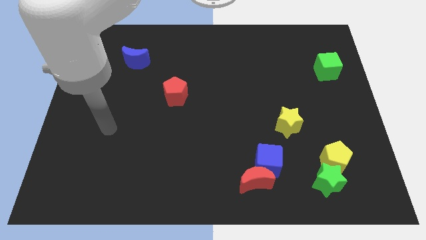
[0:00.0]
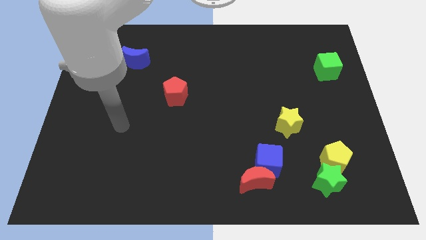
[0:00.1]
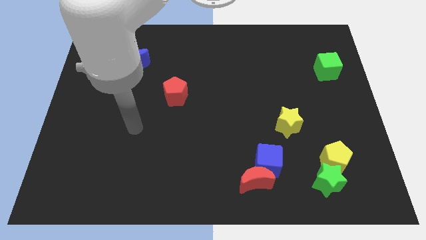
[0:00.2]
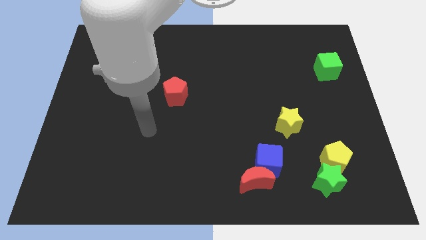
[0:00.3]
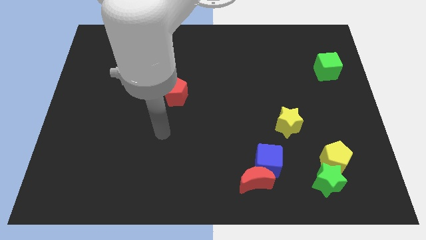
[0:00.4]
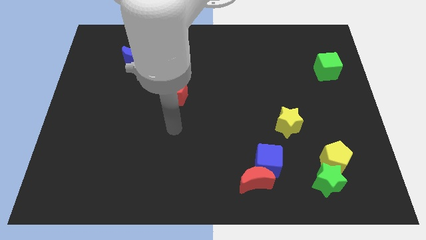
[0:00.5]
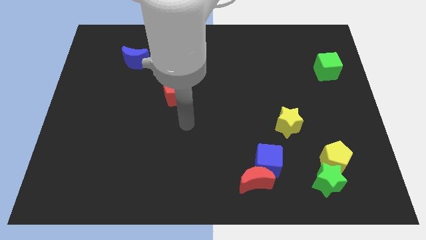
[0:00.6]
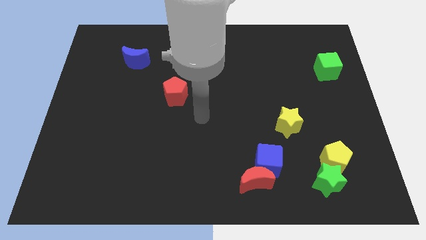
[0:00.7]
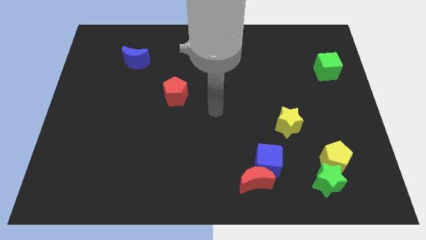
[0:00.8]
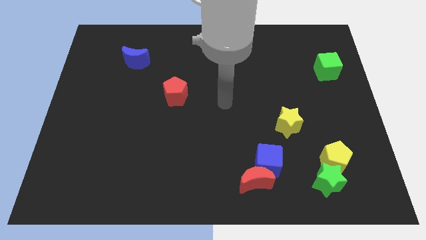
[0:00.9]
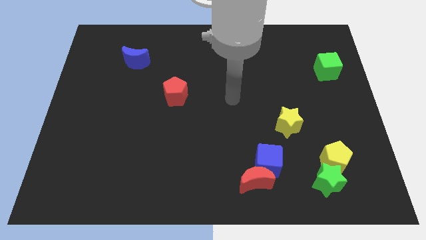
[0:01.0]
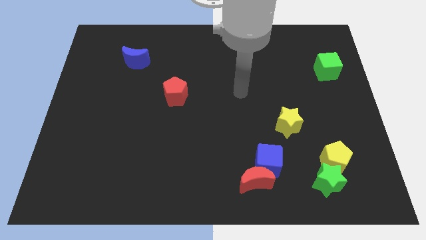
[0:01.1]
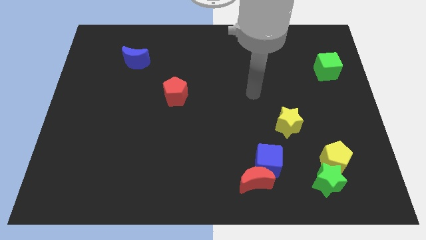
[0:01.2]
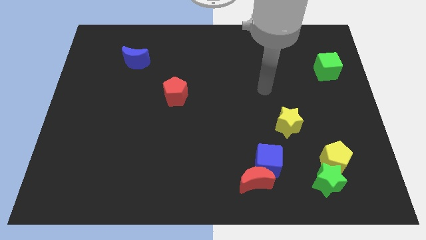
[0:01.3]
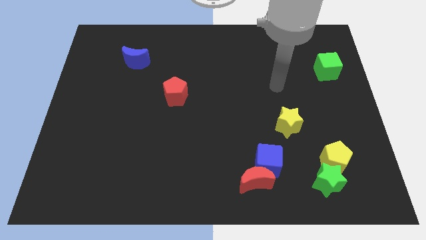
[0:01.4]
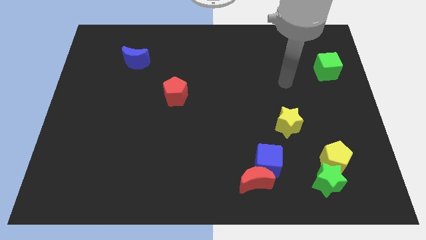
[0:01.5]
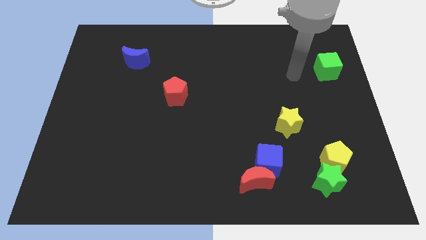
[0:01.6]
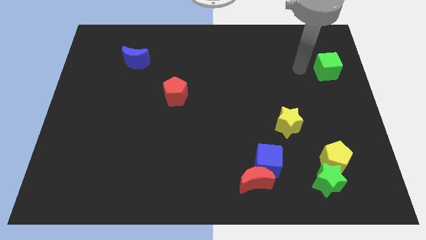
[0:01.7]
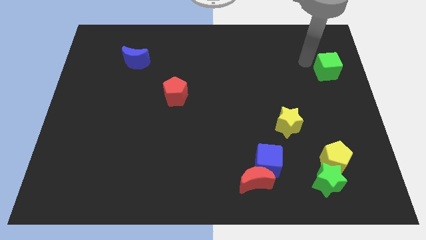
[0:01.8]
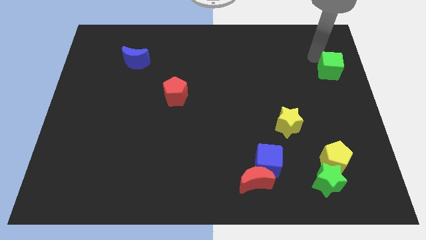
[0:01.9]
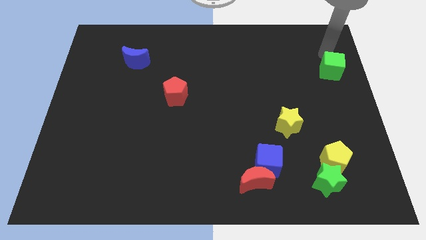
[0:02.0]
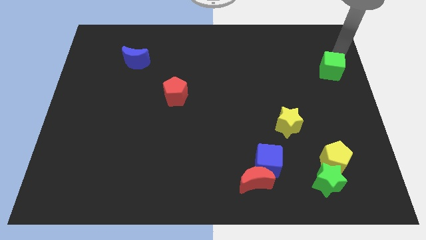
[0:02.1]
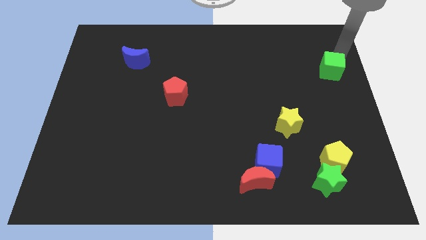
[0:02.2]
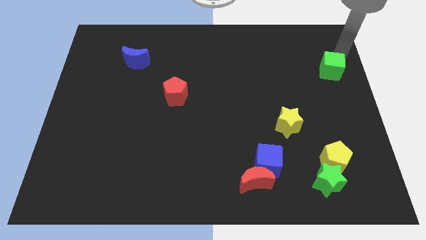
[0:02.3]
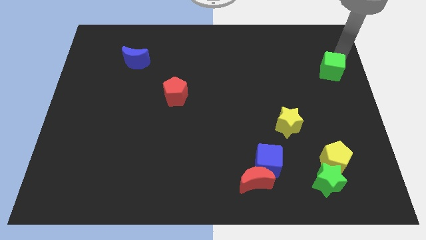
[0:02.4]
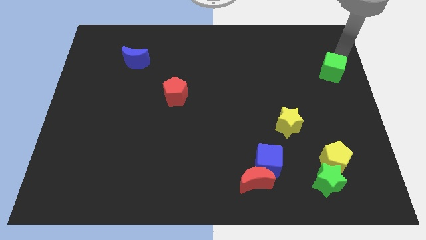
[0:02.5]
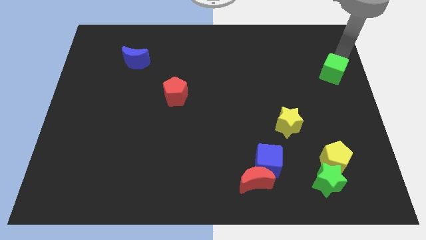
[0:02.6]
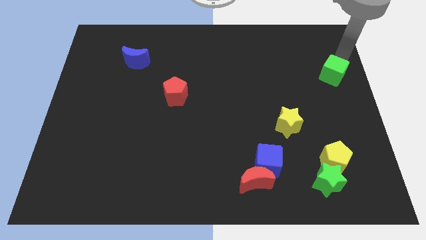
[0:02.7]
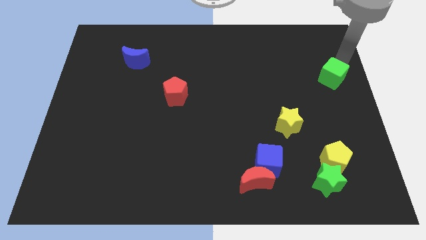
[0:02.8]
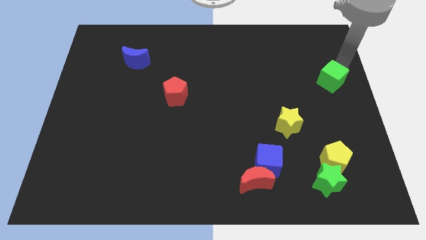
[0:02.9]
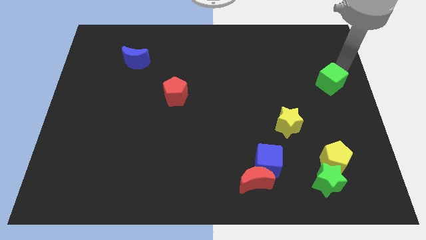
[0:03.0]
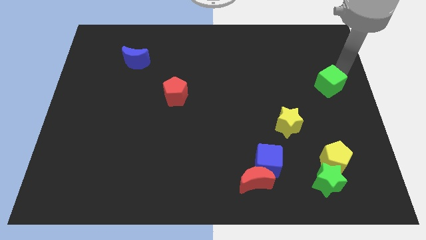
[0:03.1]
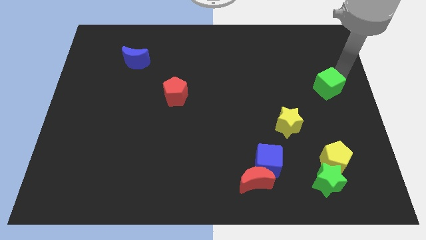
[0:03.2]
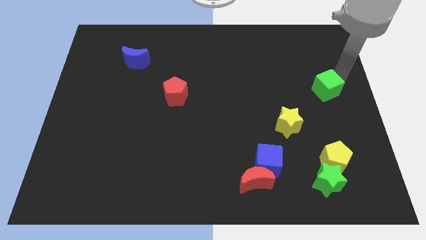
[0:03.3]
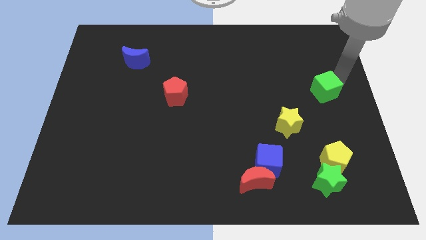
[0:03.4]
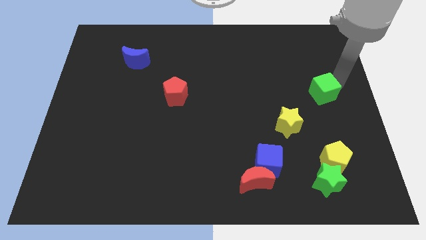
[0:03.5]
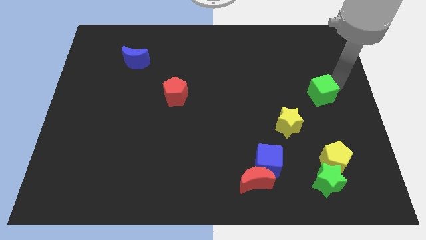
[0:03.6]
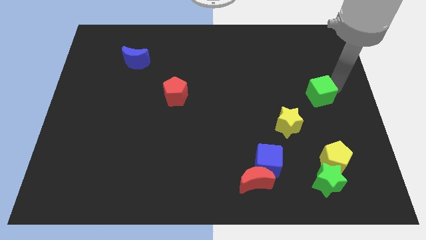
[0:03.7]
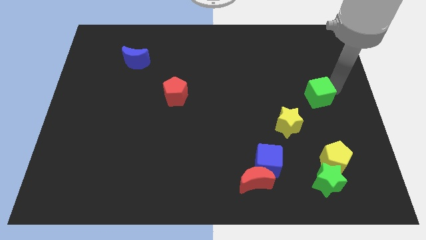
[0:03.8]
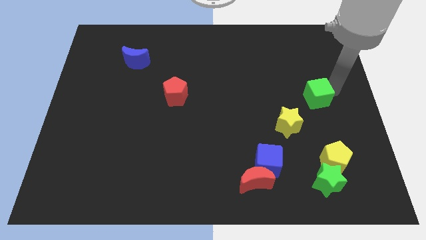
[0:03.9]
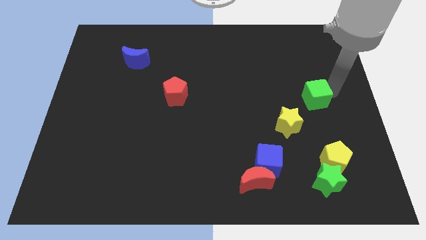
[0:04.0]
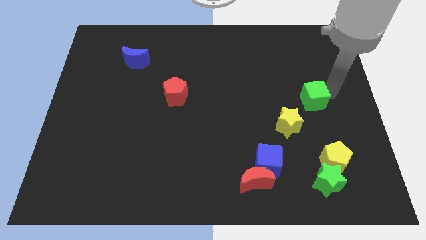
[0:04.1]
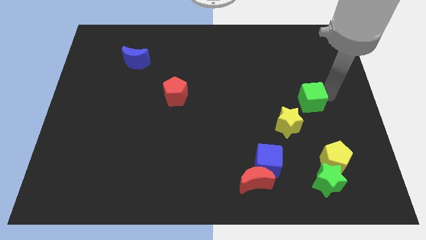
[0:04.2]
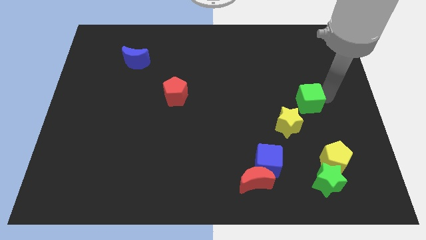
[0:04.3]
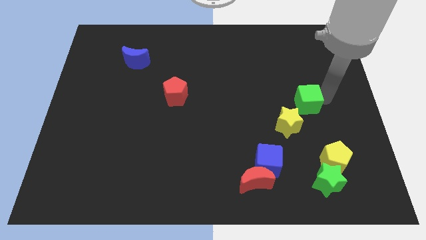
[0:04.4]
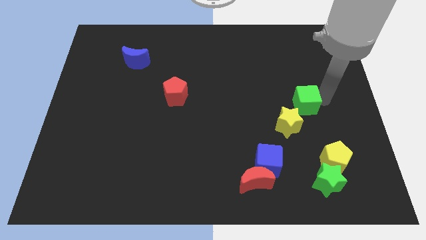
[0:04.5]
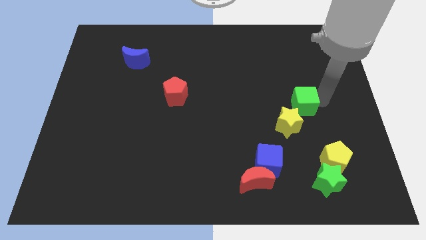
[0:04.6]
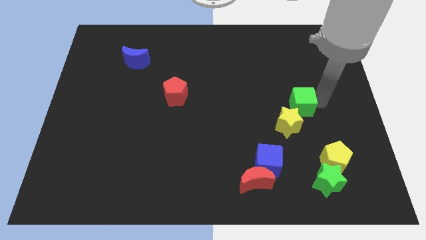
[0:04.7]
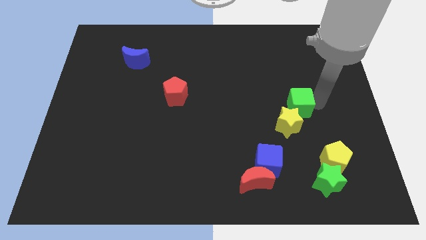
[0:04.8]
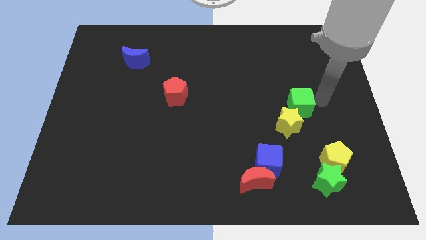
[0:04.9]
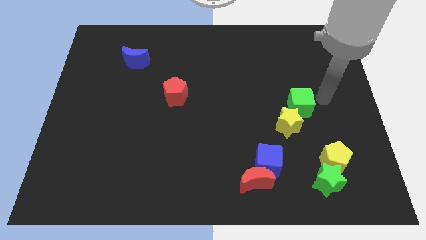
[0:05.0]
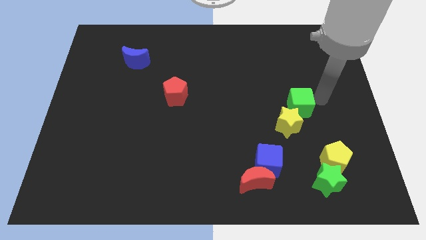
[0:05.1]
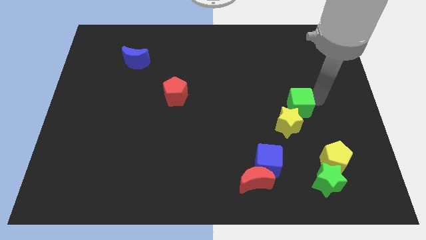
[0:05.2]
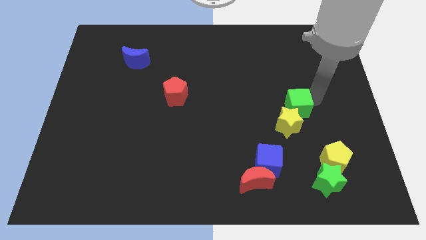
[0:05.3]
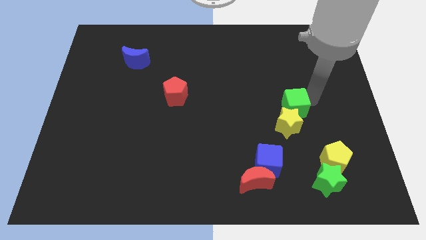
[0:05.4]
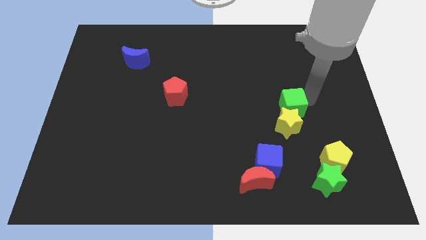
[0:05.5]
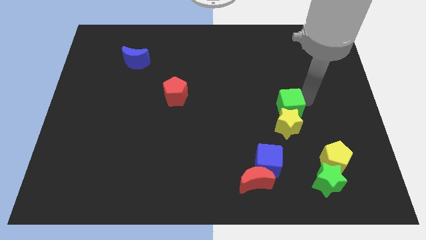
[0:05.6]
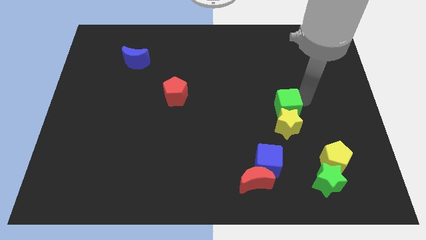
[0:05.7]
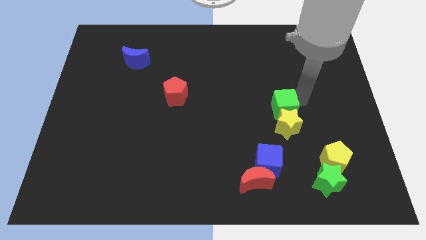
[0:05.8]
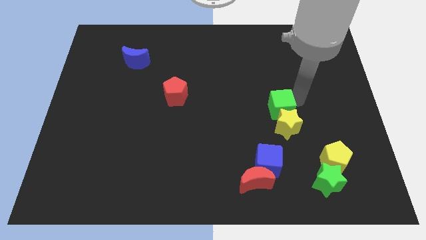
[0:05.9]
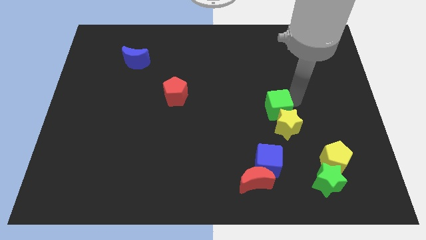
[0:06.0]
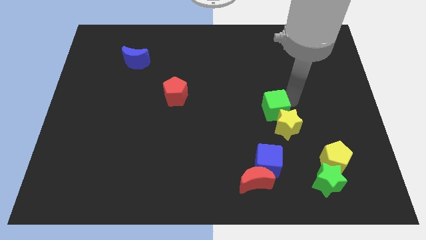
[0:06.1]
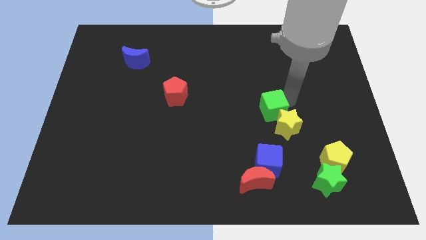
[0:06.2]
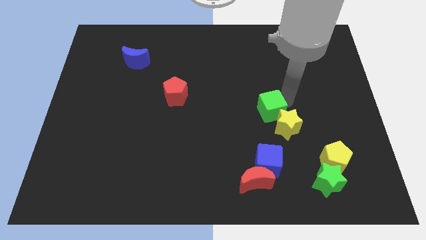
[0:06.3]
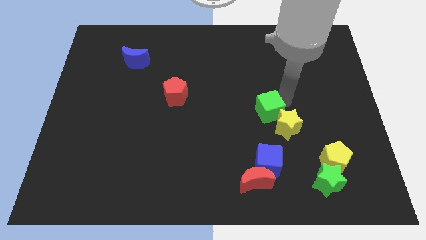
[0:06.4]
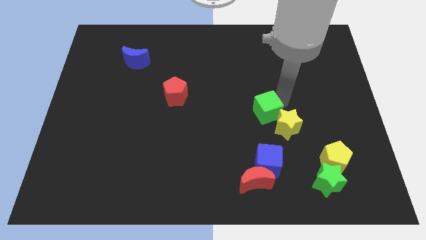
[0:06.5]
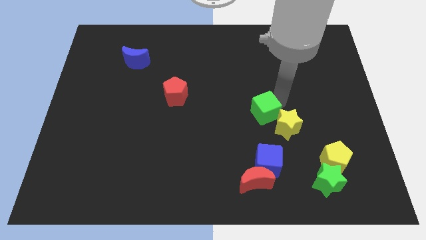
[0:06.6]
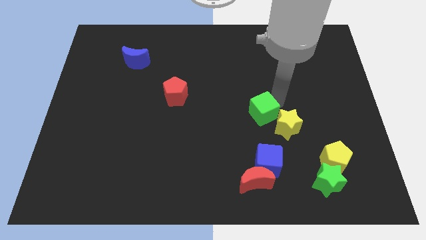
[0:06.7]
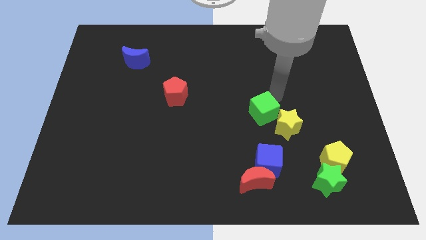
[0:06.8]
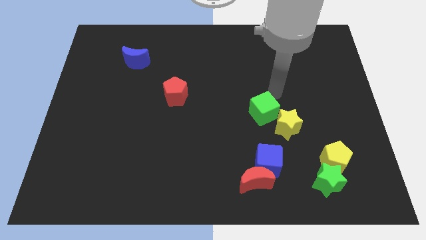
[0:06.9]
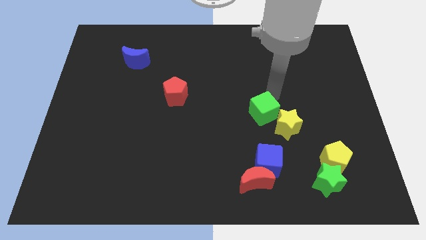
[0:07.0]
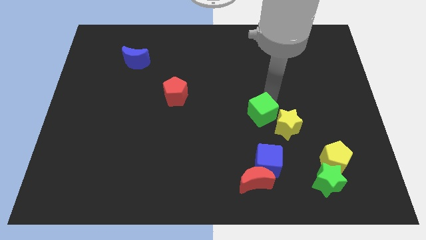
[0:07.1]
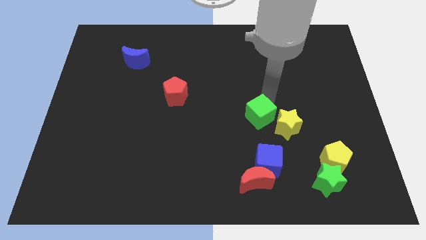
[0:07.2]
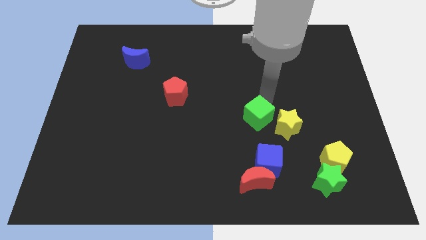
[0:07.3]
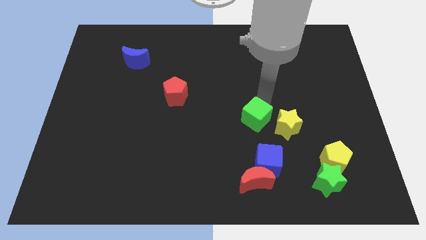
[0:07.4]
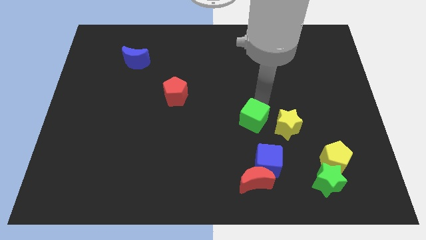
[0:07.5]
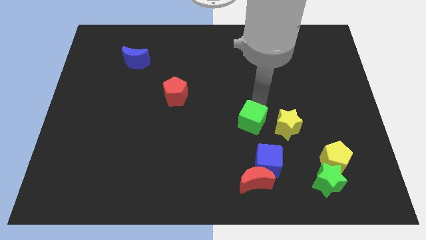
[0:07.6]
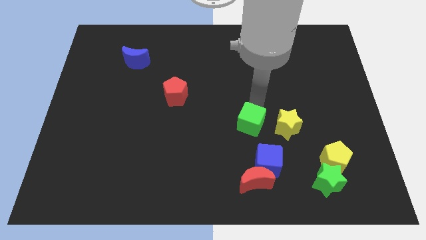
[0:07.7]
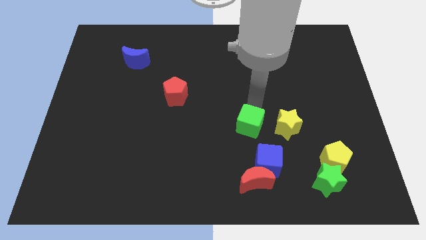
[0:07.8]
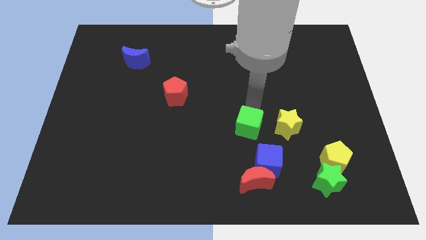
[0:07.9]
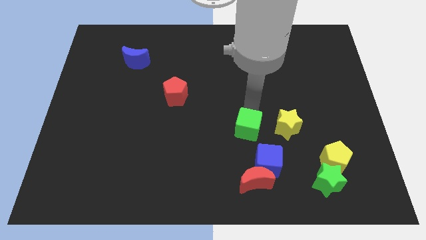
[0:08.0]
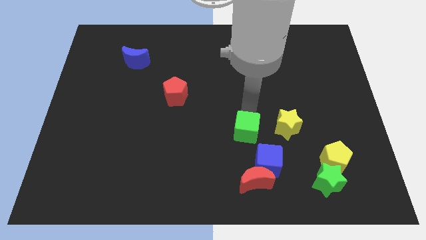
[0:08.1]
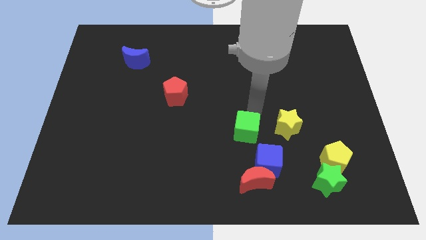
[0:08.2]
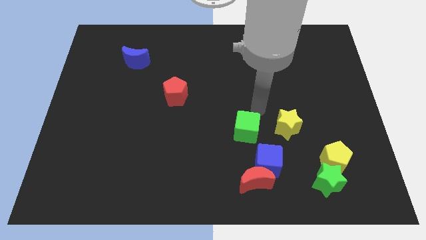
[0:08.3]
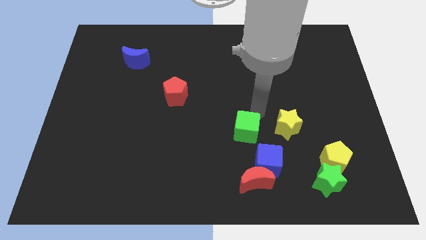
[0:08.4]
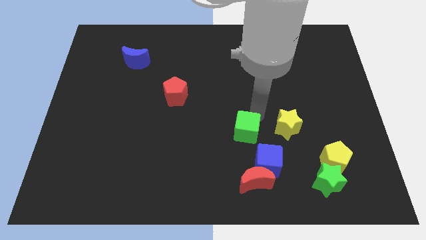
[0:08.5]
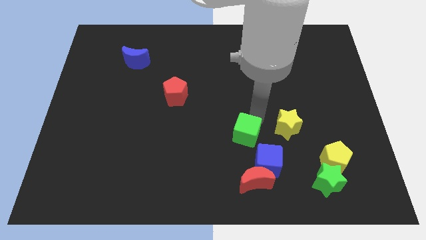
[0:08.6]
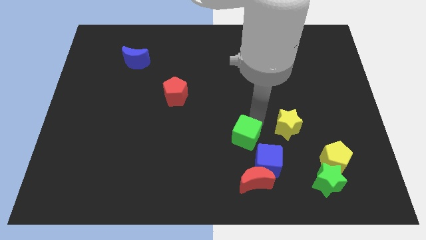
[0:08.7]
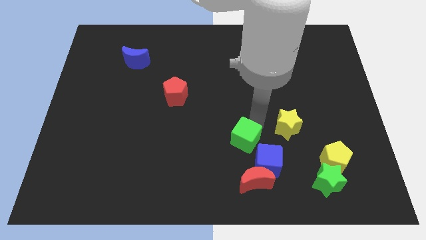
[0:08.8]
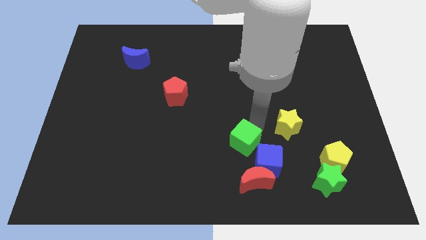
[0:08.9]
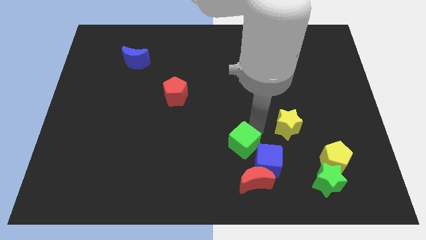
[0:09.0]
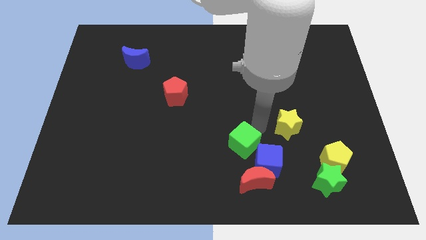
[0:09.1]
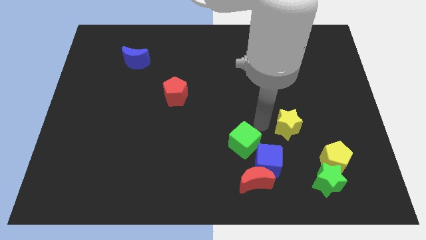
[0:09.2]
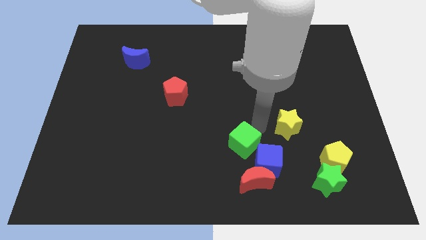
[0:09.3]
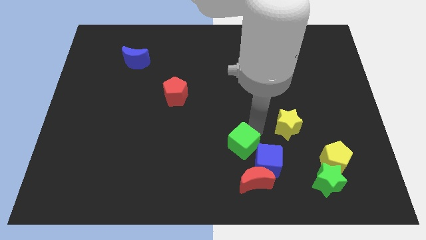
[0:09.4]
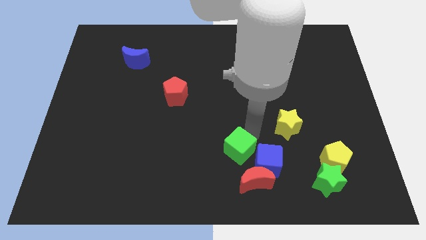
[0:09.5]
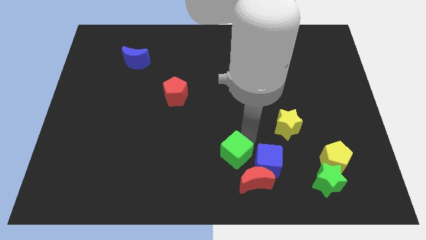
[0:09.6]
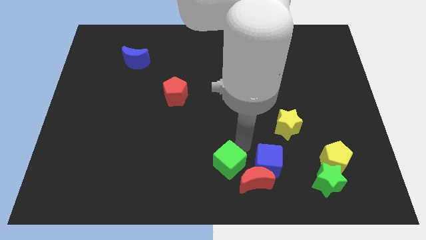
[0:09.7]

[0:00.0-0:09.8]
push the green cube just left of the red moon
